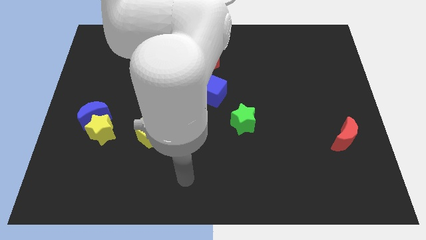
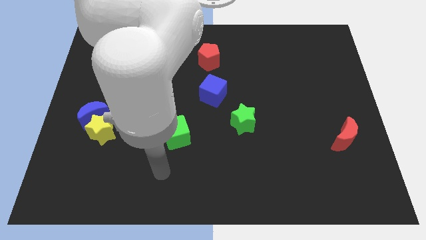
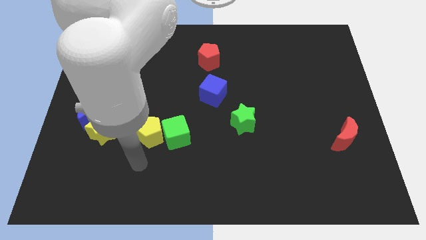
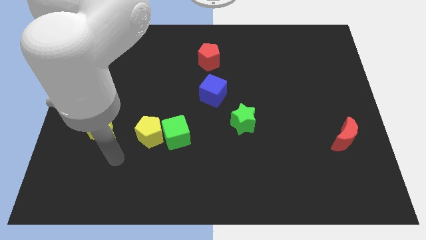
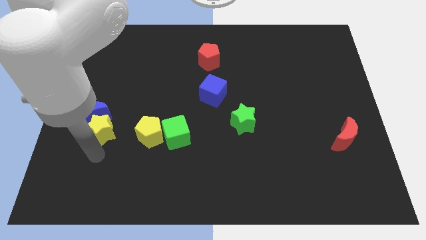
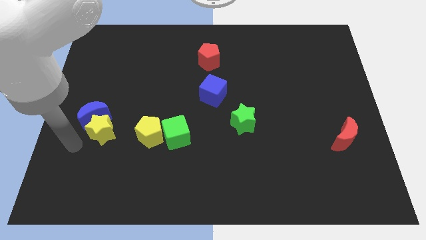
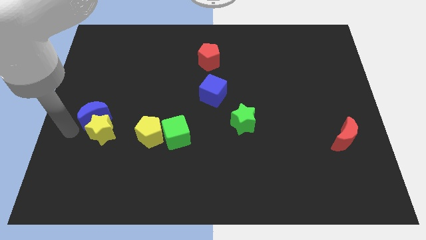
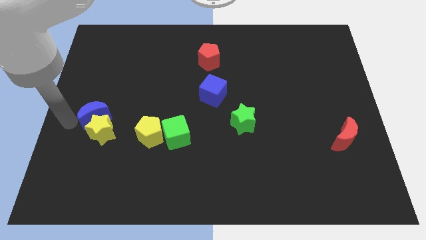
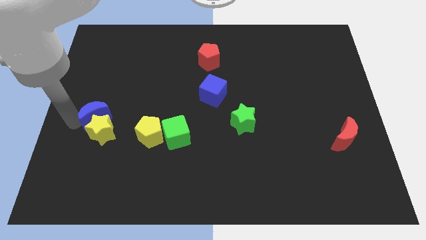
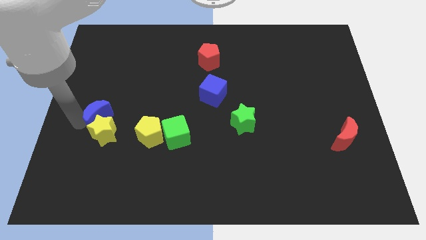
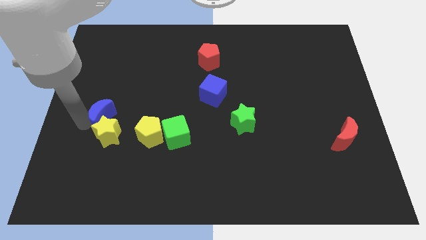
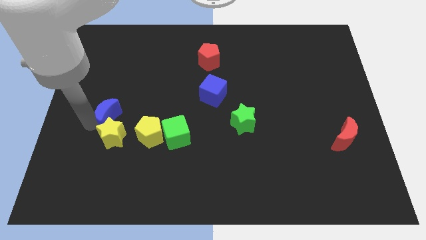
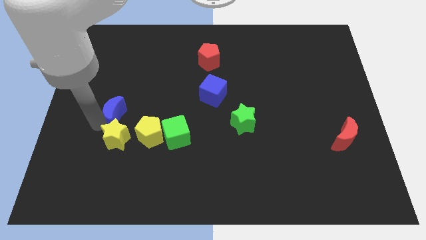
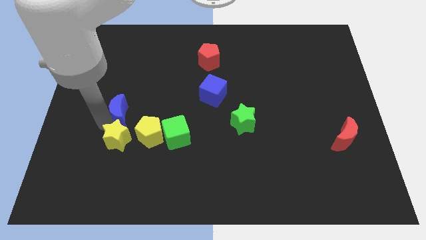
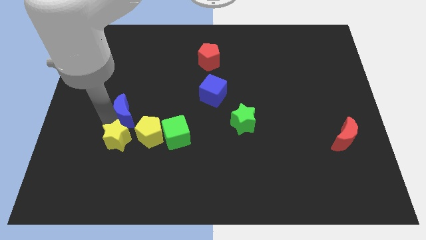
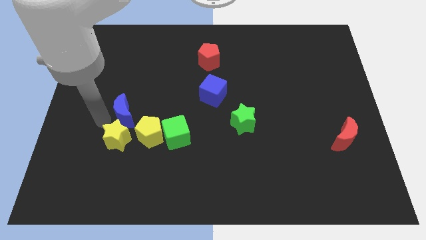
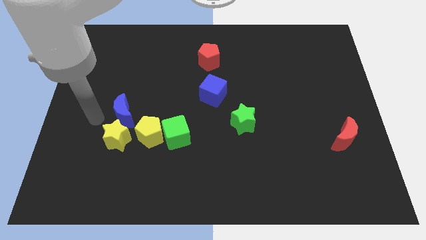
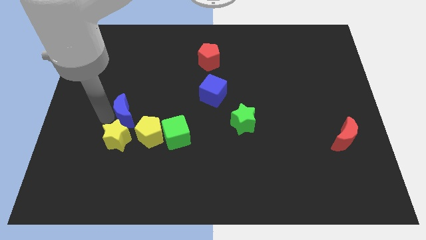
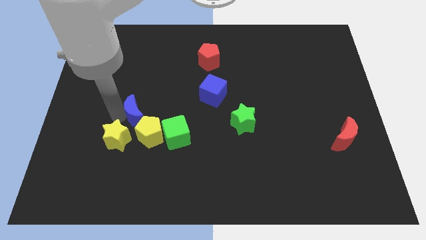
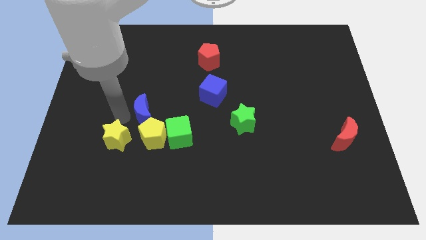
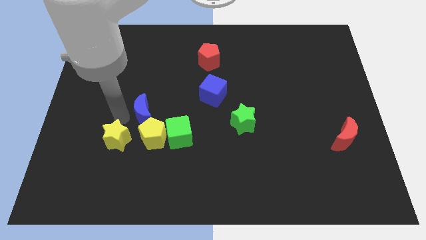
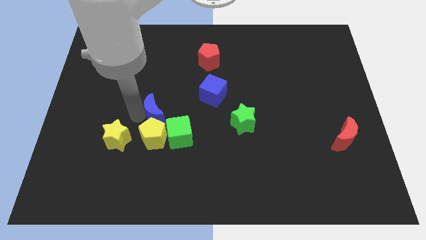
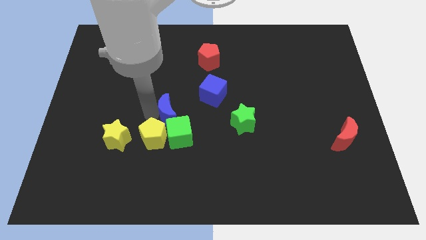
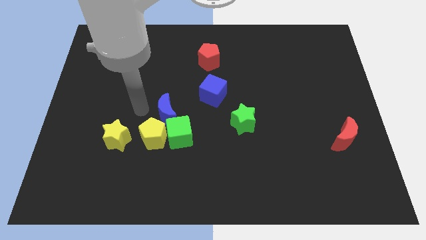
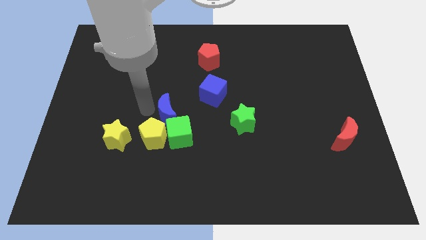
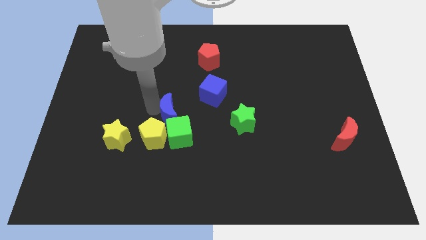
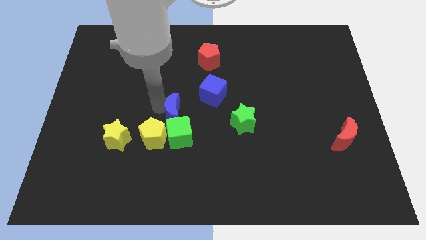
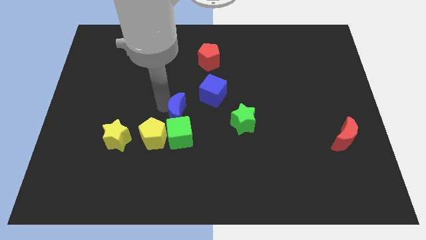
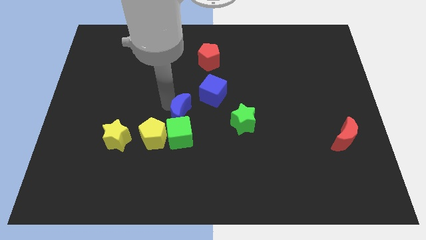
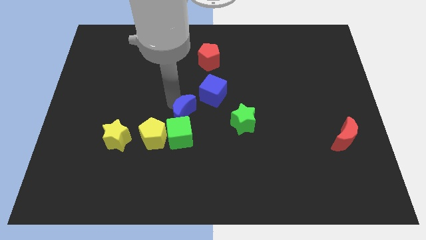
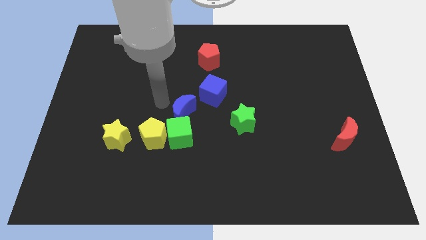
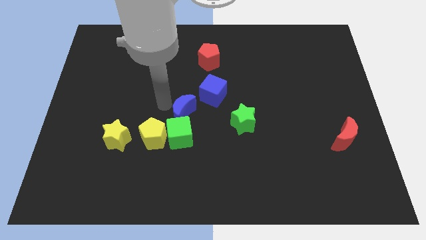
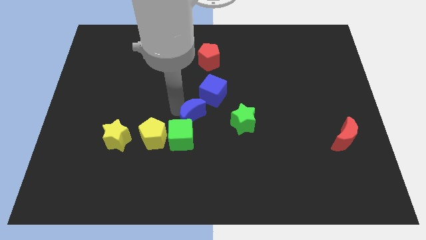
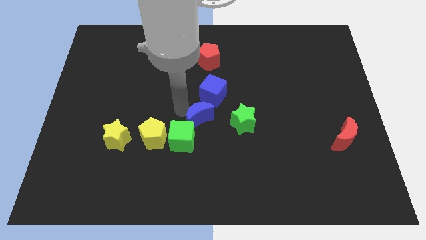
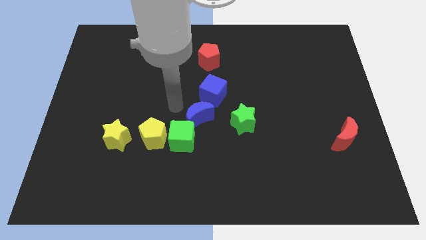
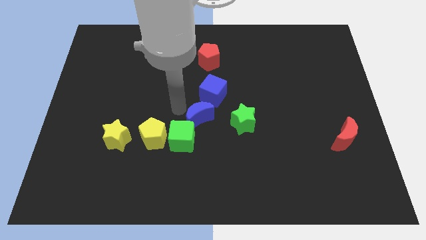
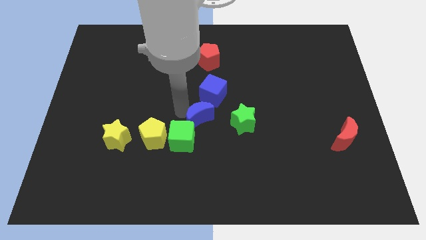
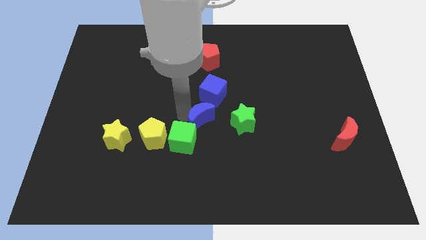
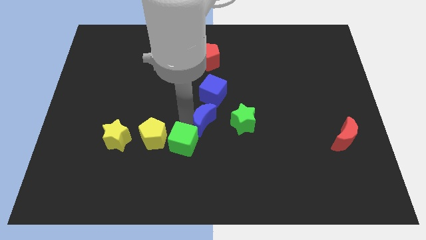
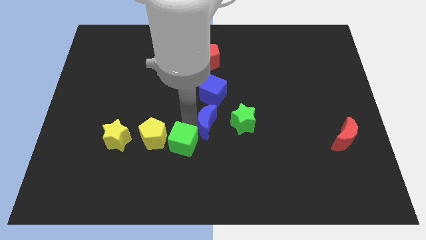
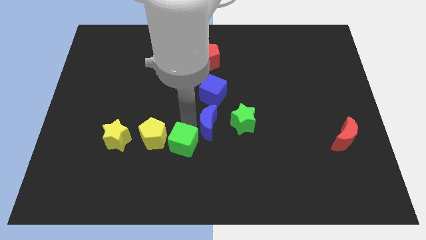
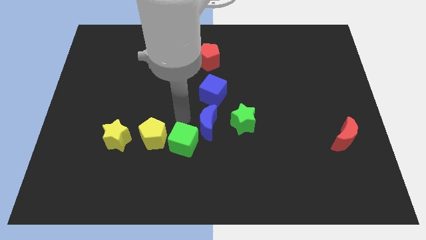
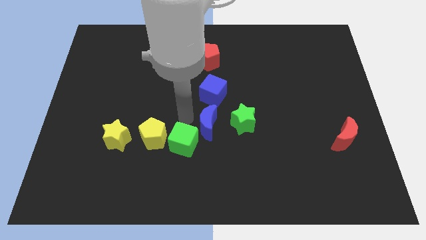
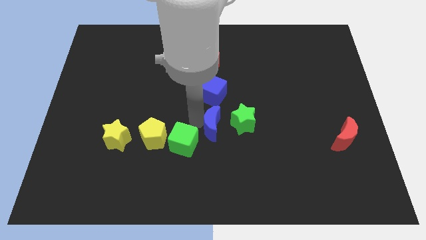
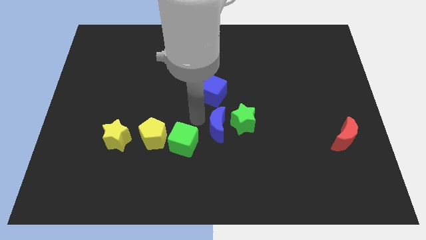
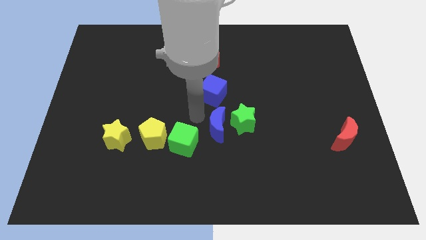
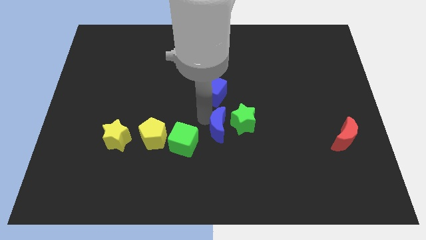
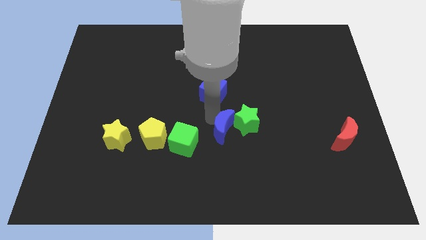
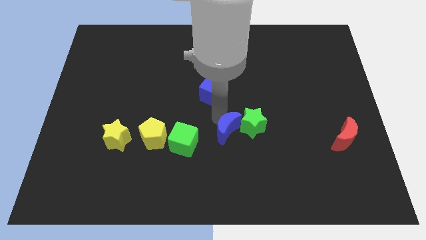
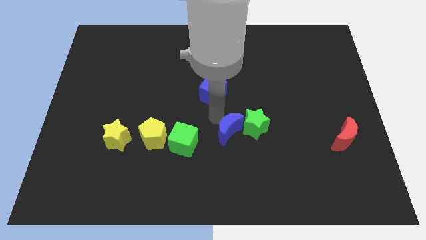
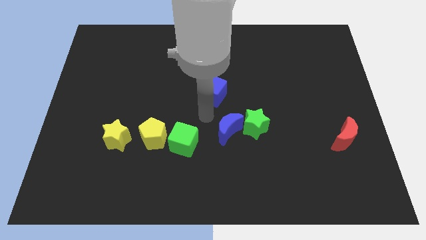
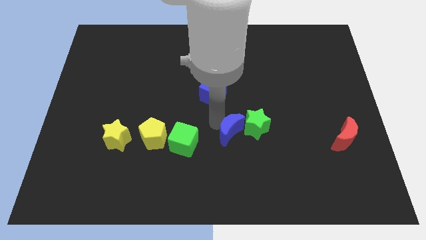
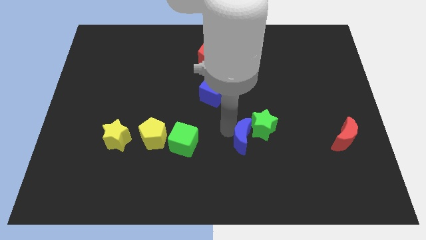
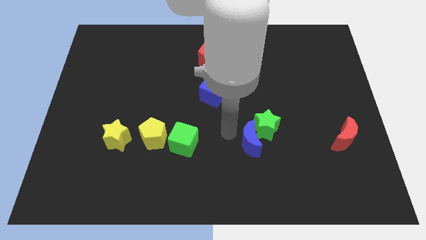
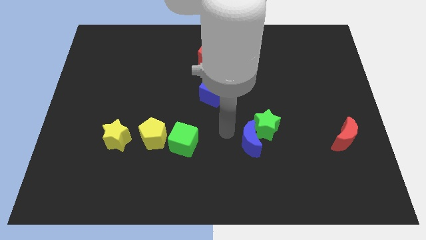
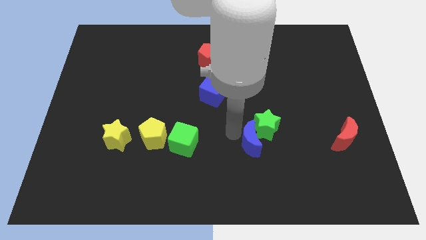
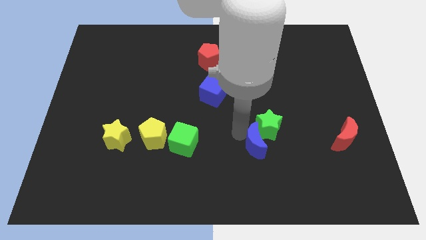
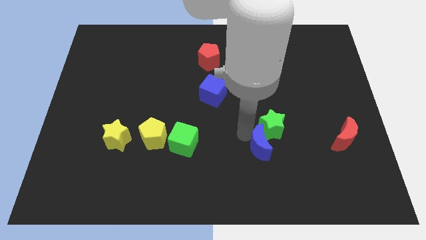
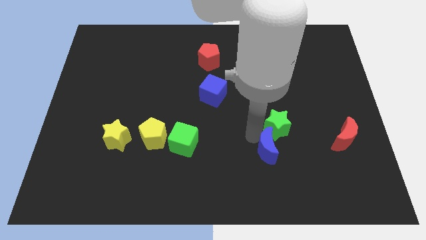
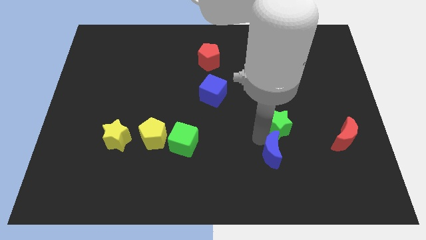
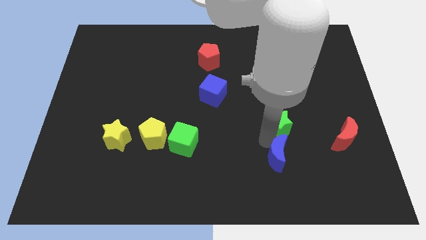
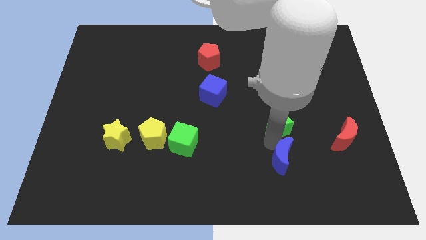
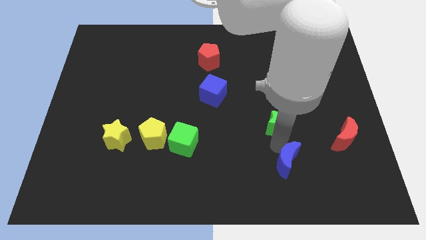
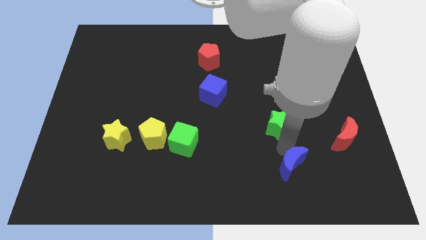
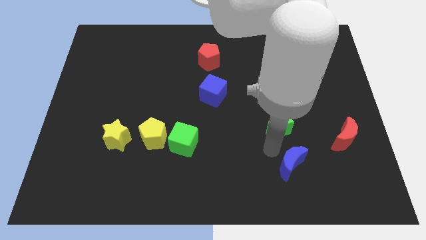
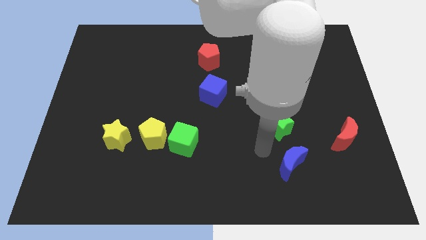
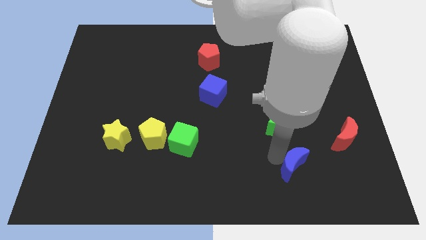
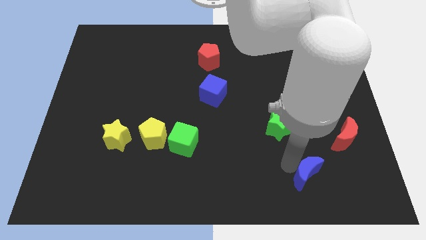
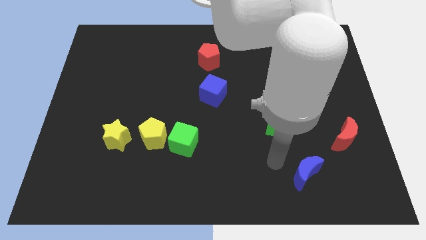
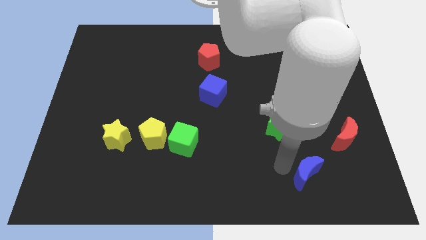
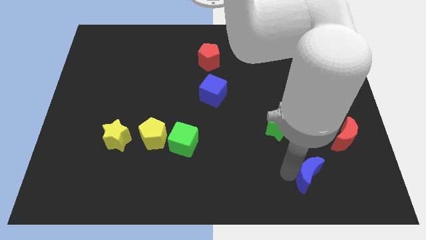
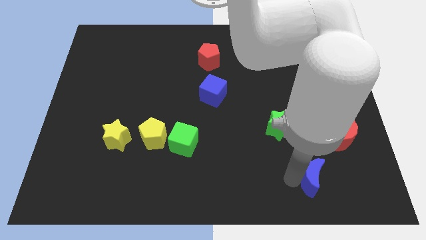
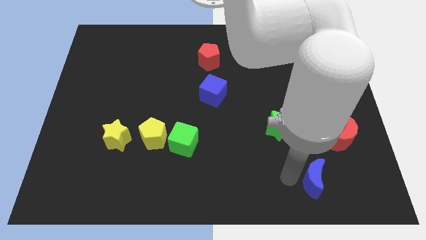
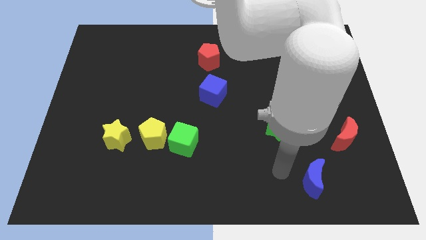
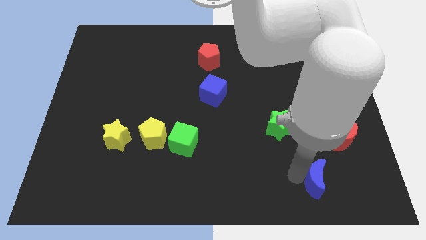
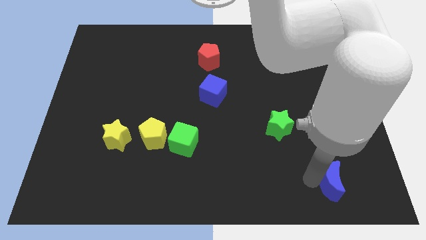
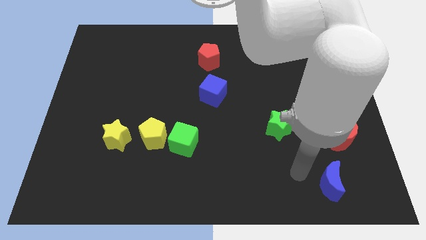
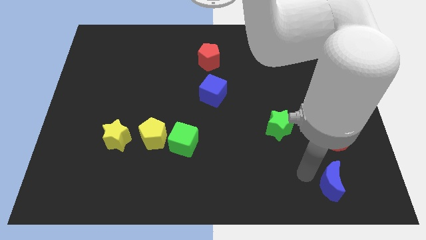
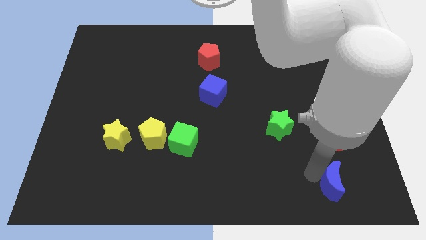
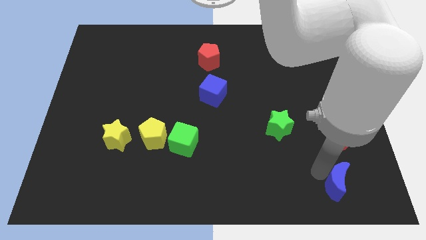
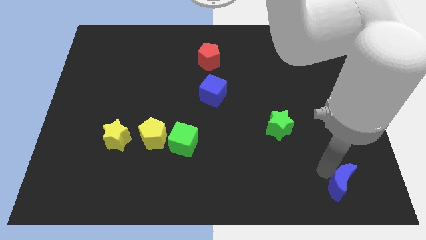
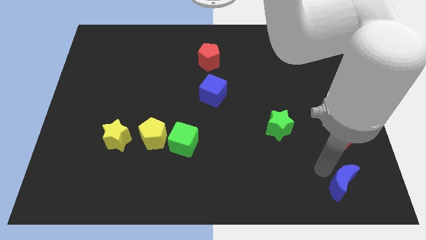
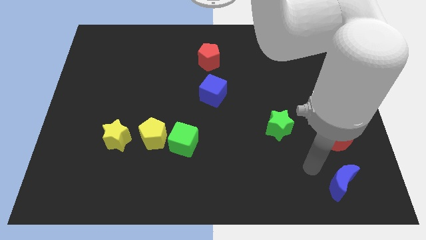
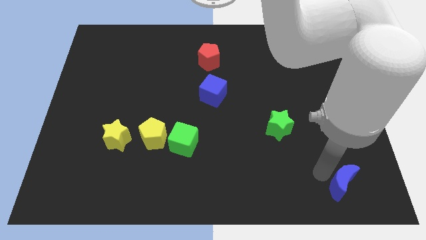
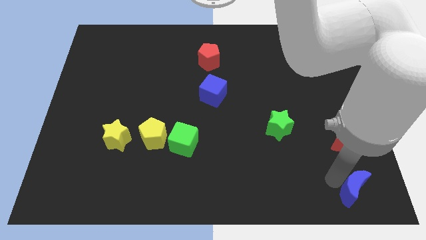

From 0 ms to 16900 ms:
move the blue moon to the lower right corner
